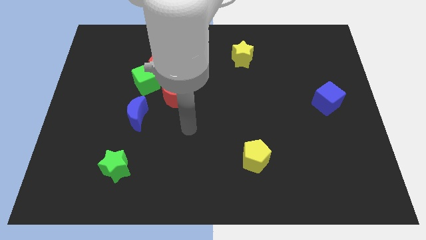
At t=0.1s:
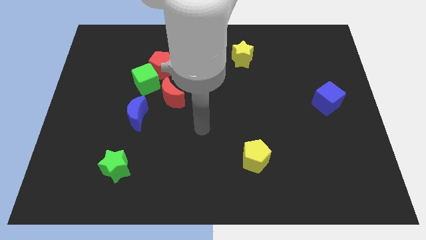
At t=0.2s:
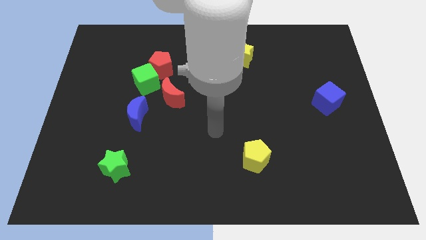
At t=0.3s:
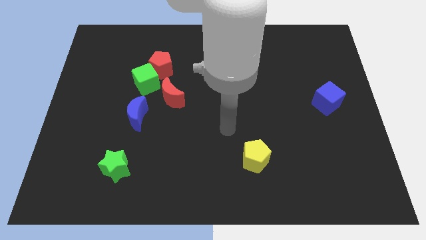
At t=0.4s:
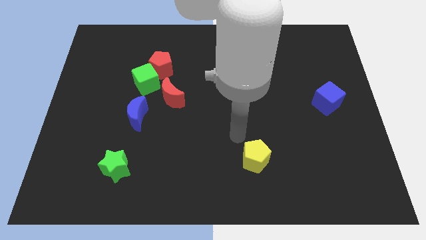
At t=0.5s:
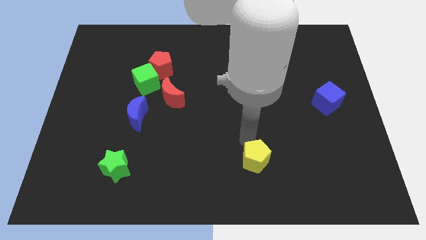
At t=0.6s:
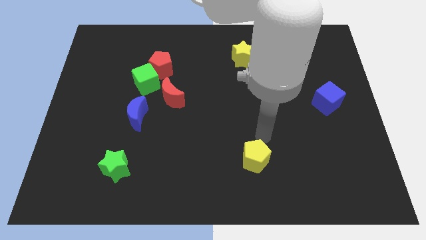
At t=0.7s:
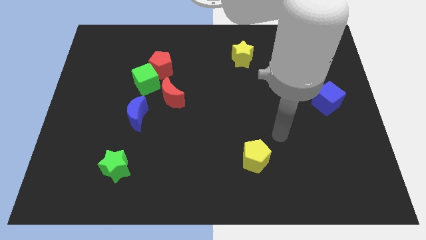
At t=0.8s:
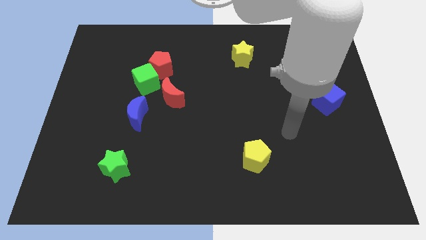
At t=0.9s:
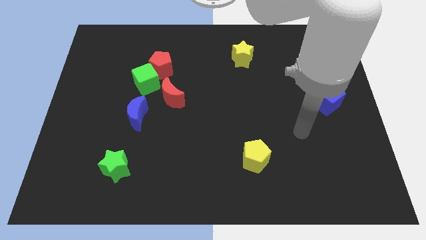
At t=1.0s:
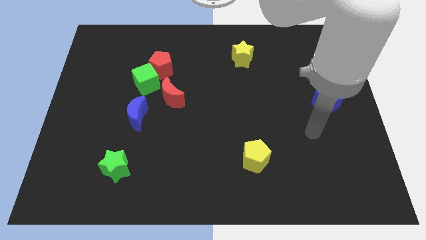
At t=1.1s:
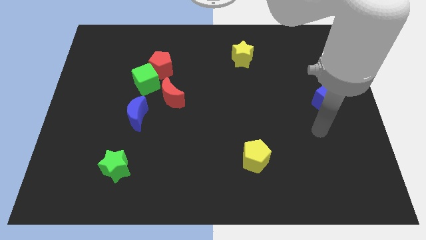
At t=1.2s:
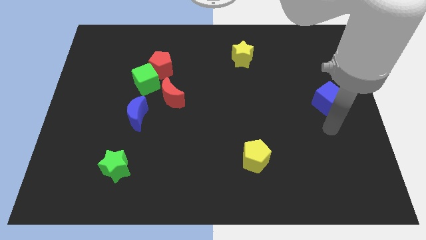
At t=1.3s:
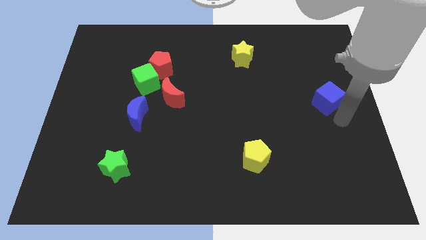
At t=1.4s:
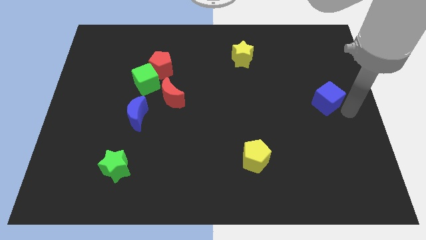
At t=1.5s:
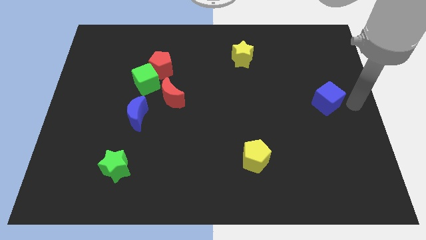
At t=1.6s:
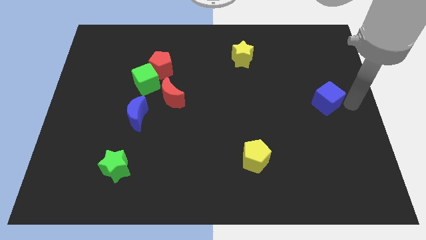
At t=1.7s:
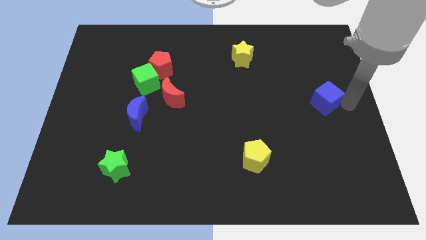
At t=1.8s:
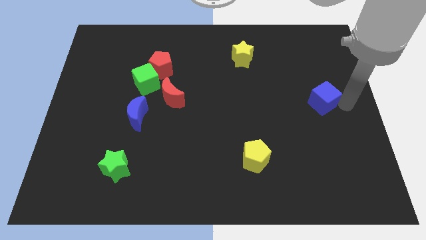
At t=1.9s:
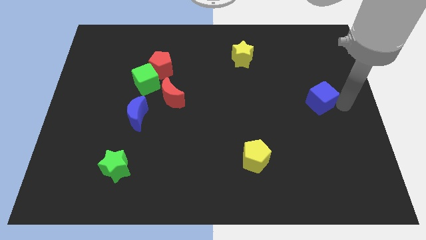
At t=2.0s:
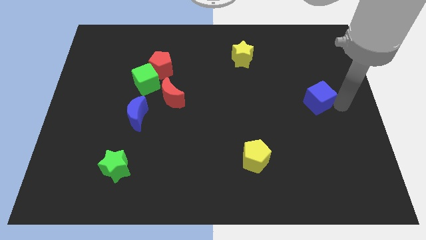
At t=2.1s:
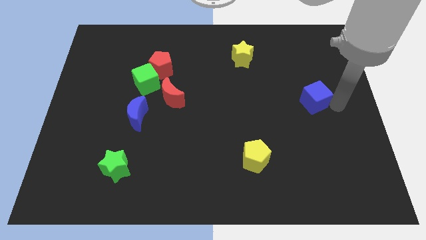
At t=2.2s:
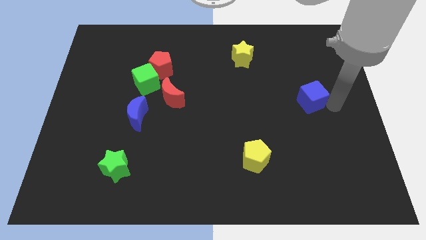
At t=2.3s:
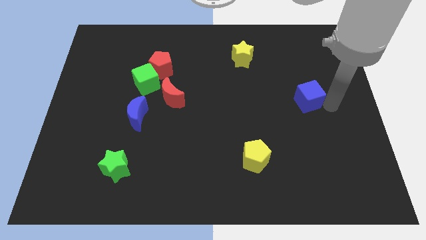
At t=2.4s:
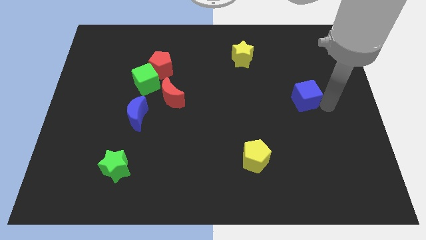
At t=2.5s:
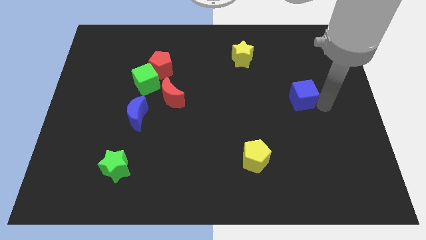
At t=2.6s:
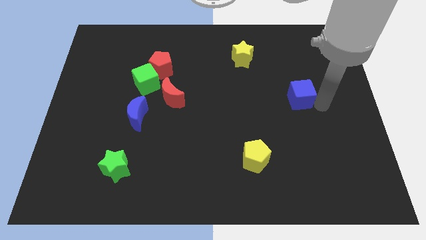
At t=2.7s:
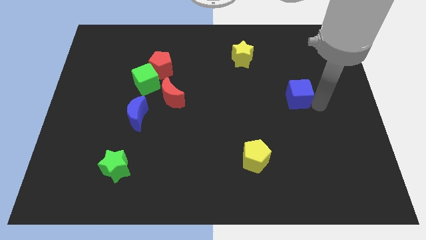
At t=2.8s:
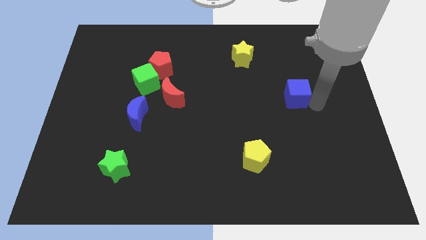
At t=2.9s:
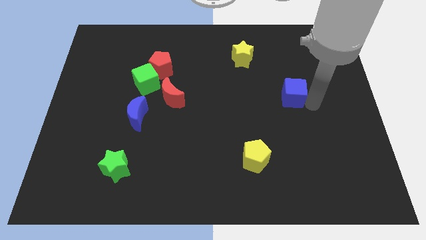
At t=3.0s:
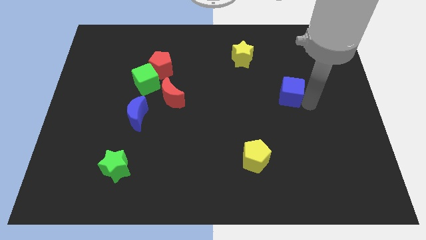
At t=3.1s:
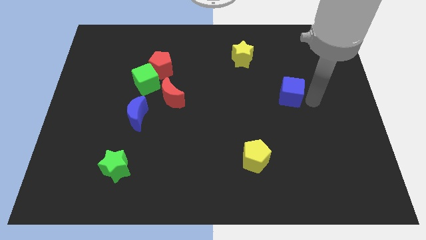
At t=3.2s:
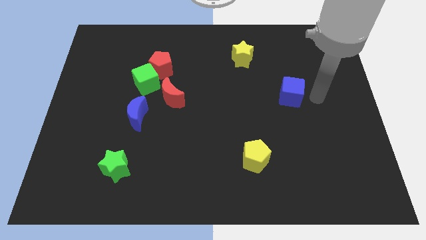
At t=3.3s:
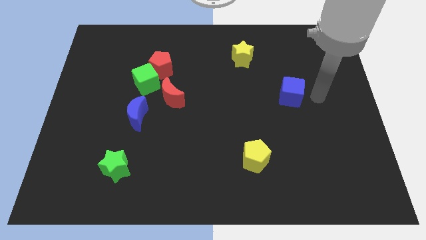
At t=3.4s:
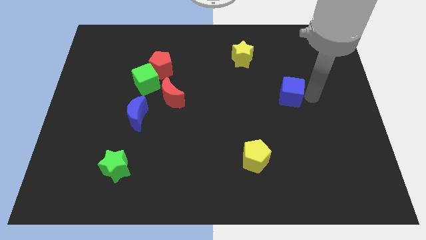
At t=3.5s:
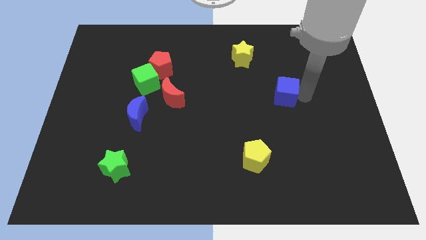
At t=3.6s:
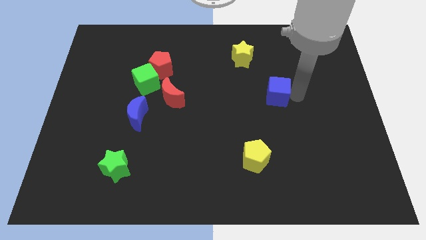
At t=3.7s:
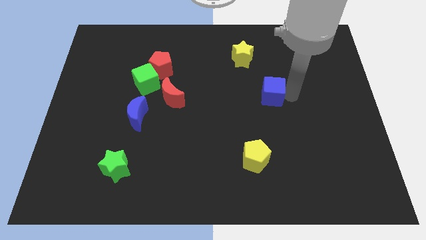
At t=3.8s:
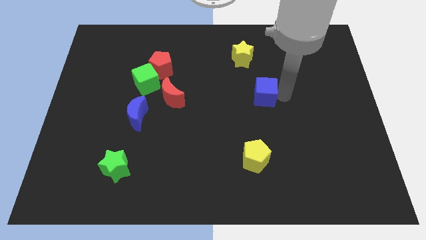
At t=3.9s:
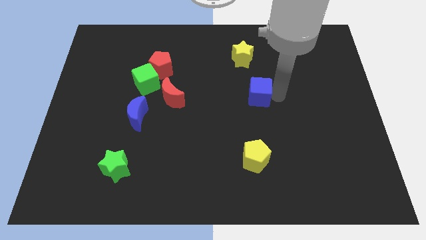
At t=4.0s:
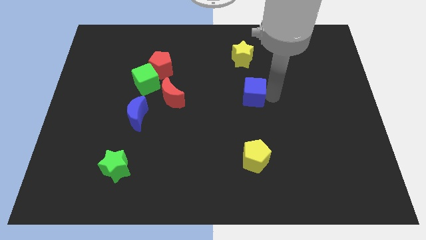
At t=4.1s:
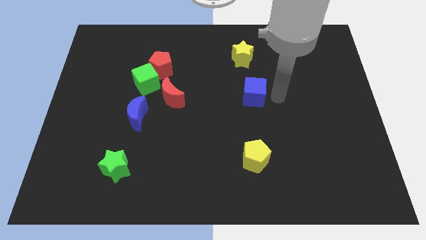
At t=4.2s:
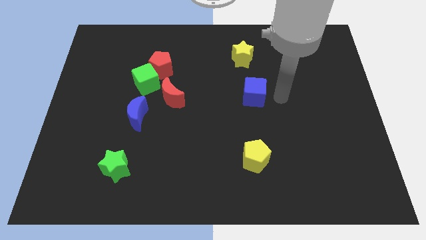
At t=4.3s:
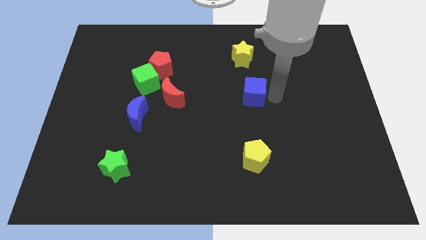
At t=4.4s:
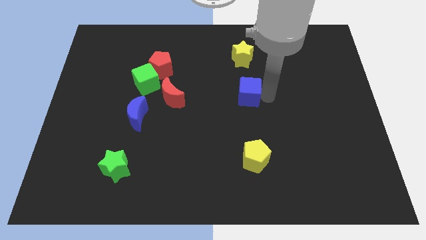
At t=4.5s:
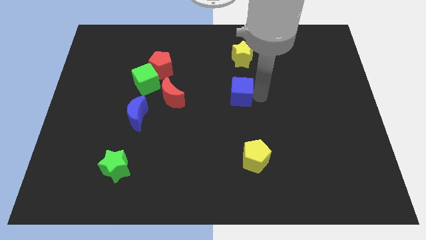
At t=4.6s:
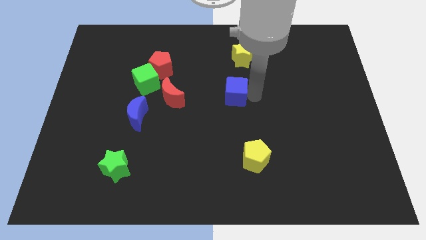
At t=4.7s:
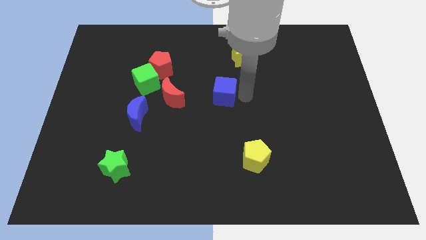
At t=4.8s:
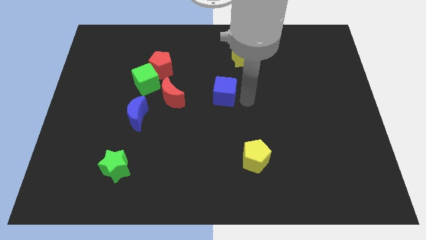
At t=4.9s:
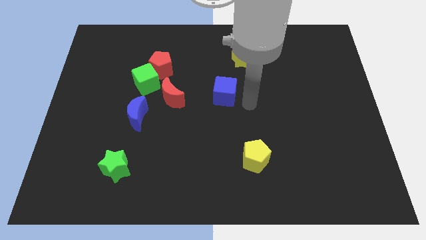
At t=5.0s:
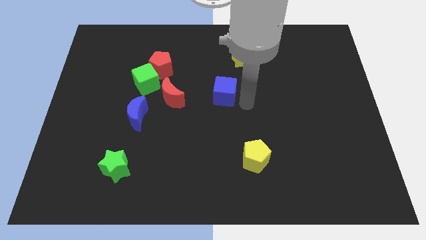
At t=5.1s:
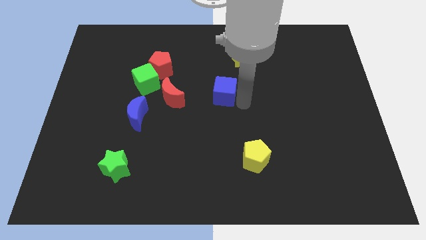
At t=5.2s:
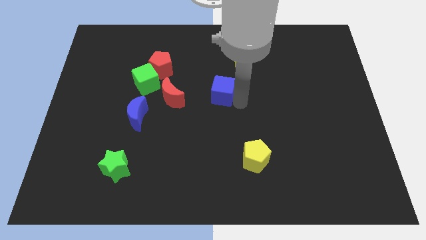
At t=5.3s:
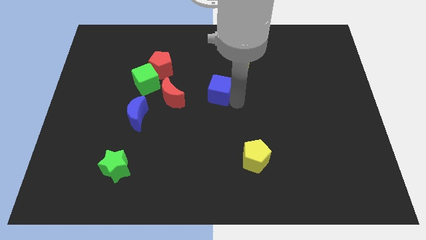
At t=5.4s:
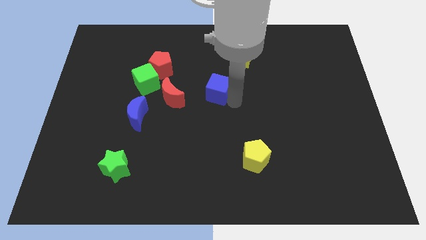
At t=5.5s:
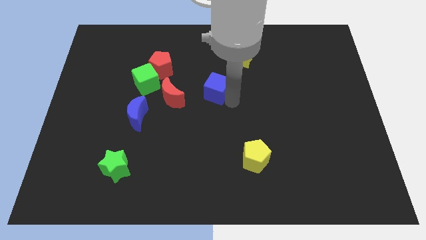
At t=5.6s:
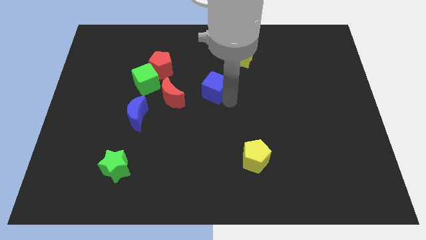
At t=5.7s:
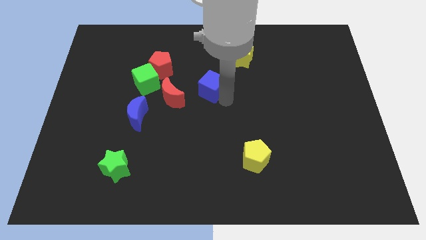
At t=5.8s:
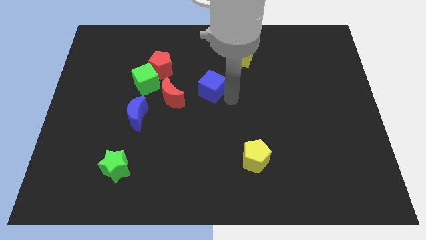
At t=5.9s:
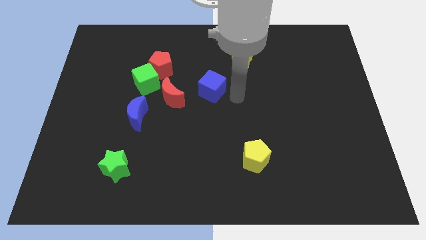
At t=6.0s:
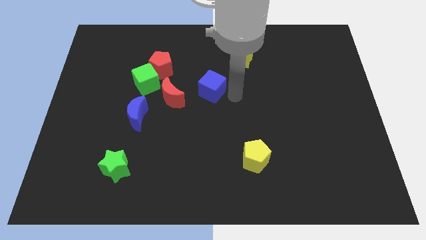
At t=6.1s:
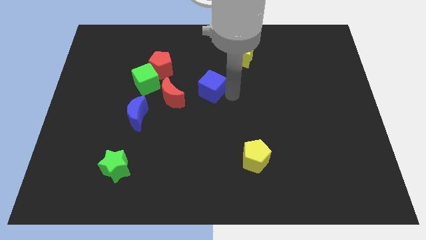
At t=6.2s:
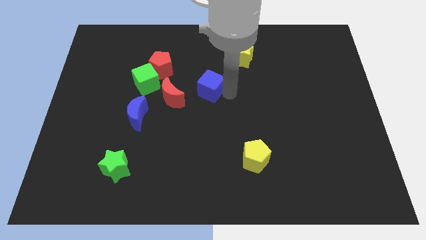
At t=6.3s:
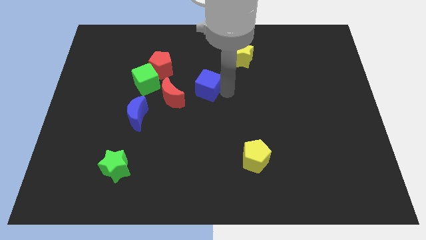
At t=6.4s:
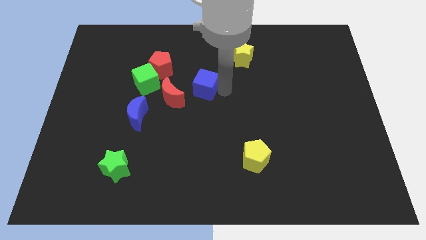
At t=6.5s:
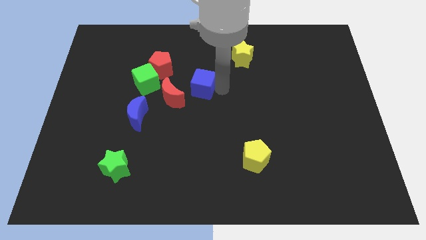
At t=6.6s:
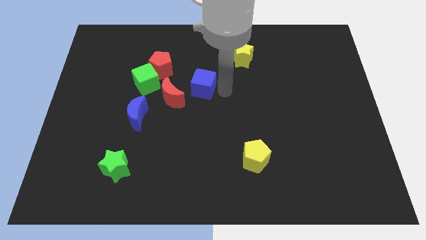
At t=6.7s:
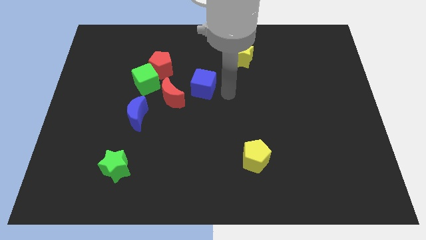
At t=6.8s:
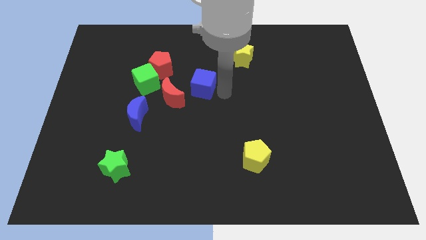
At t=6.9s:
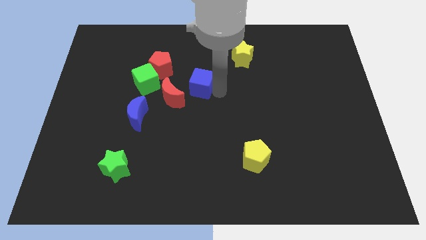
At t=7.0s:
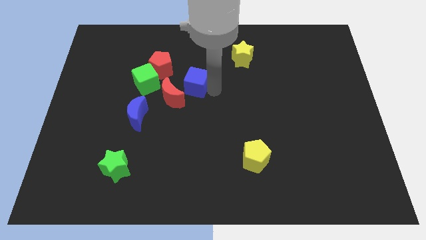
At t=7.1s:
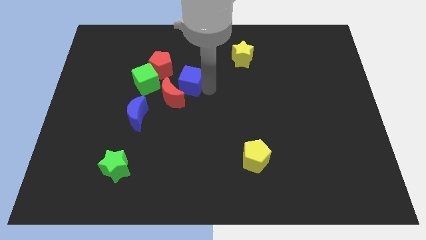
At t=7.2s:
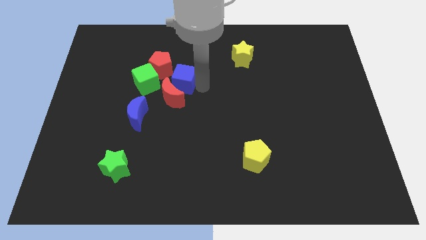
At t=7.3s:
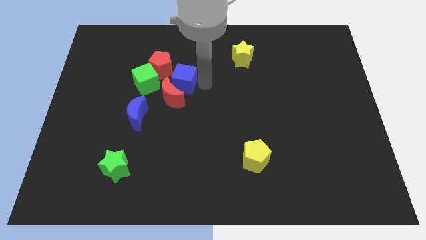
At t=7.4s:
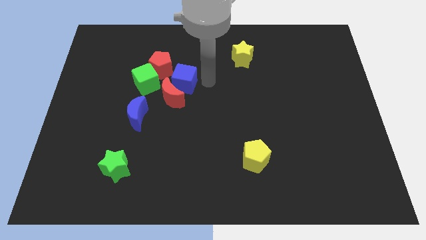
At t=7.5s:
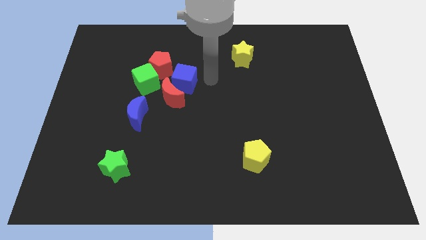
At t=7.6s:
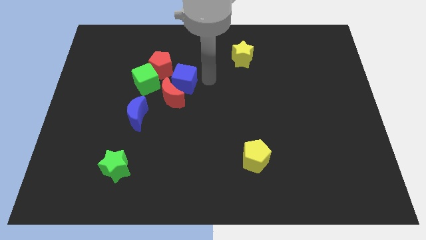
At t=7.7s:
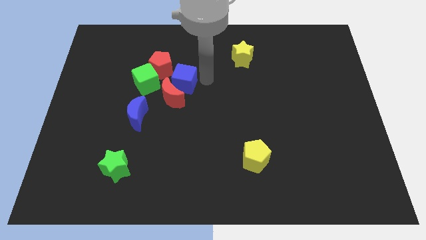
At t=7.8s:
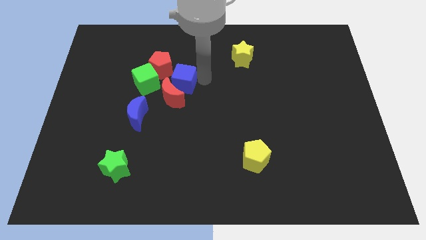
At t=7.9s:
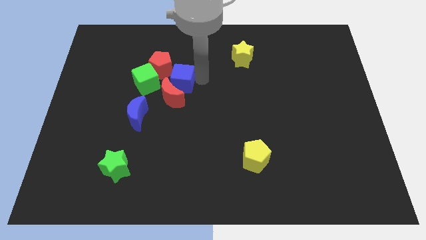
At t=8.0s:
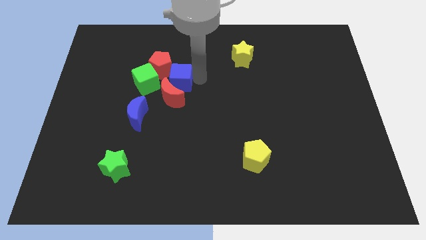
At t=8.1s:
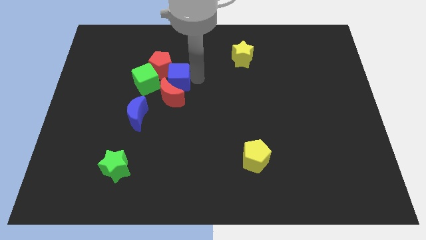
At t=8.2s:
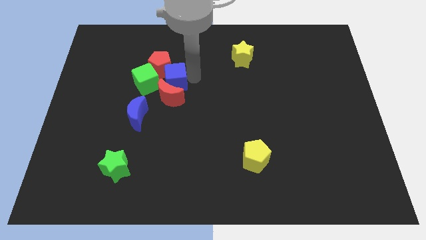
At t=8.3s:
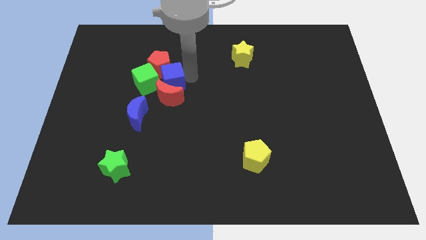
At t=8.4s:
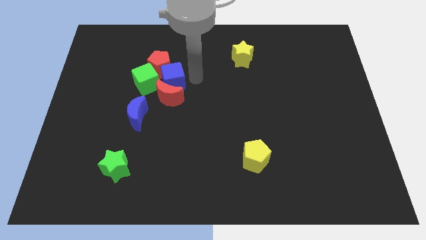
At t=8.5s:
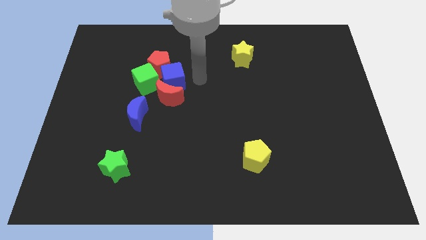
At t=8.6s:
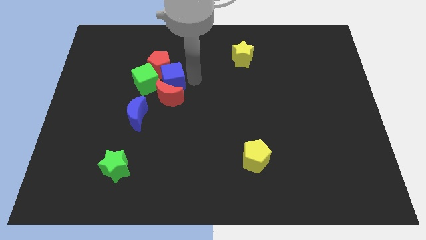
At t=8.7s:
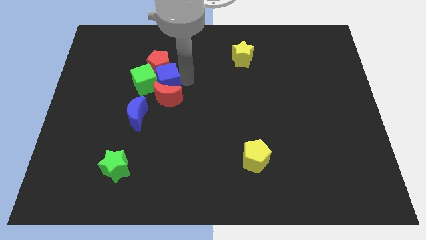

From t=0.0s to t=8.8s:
put the blue cube to the green cube
